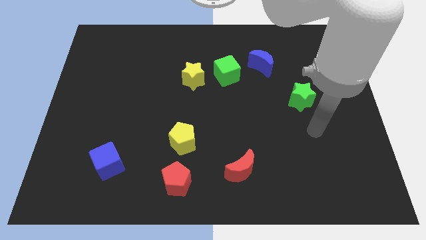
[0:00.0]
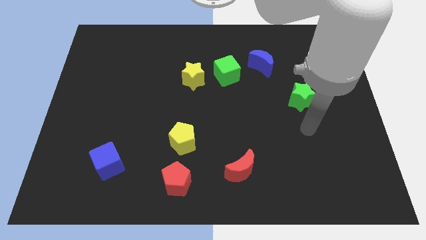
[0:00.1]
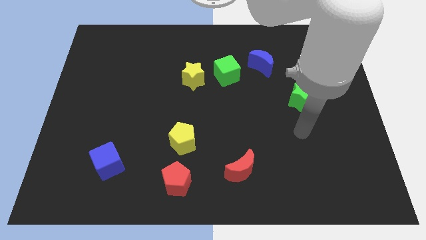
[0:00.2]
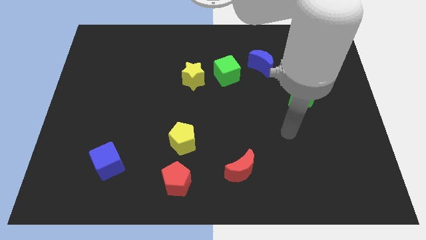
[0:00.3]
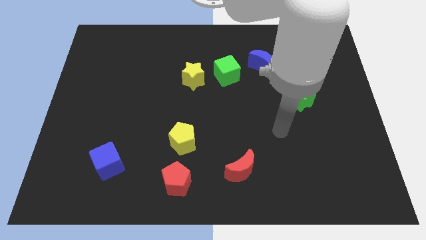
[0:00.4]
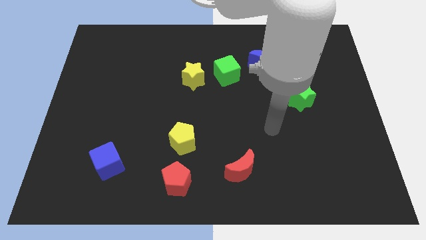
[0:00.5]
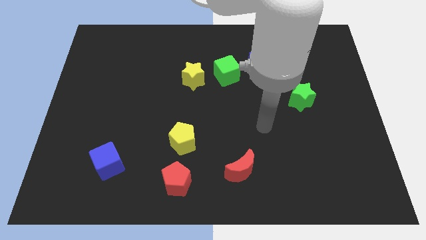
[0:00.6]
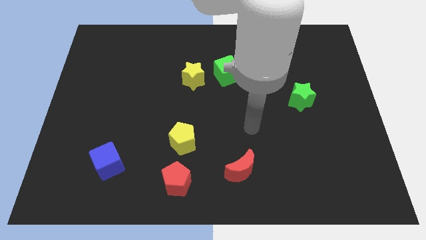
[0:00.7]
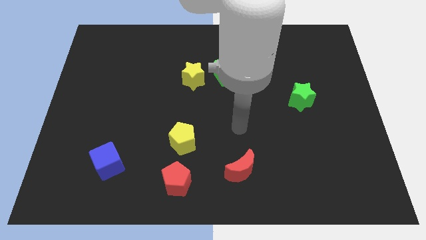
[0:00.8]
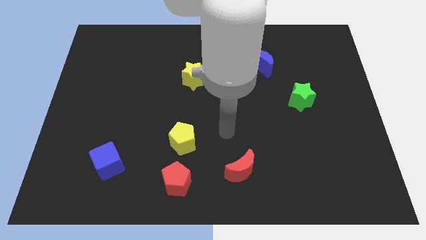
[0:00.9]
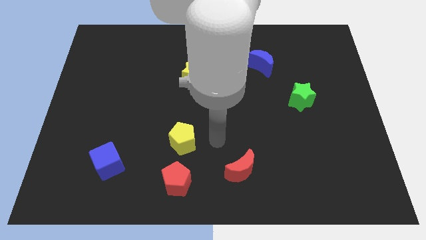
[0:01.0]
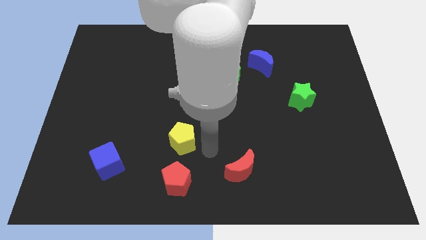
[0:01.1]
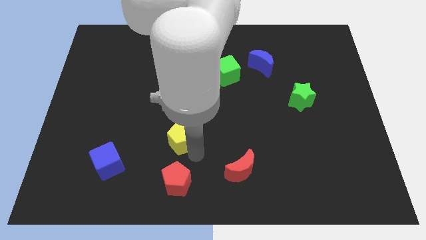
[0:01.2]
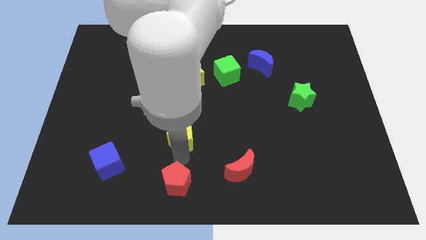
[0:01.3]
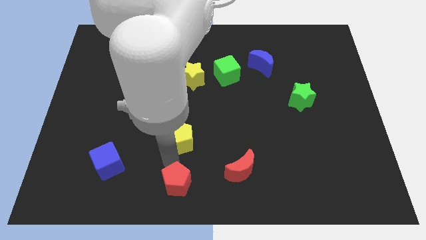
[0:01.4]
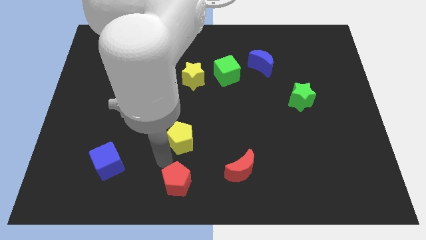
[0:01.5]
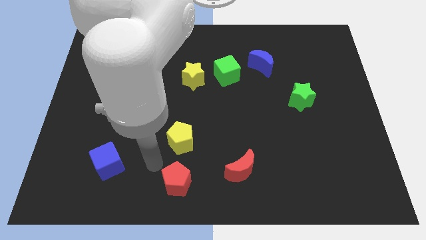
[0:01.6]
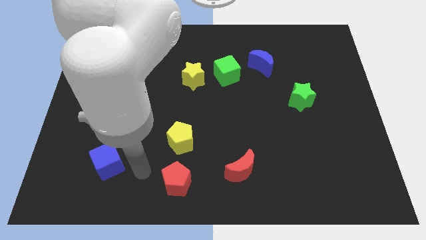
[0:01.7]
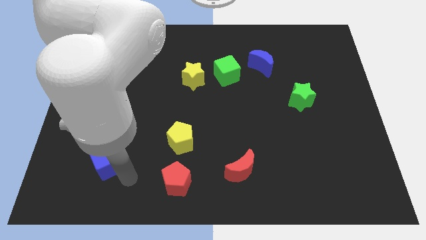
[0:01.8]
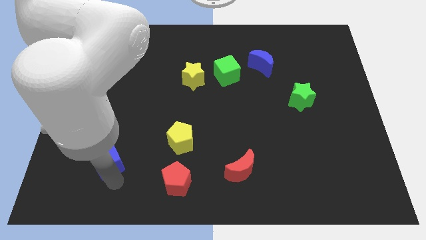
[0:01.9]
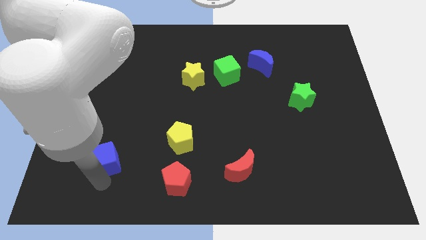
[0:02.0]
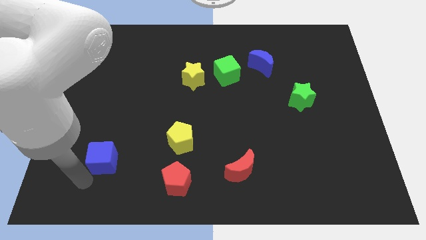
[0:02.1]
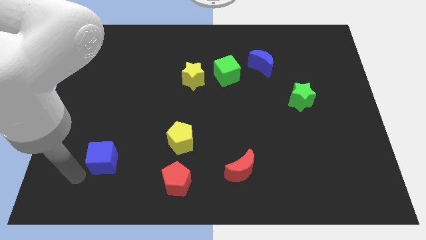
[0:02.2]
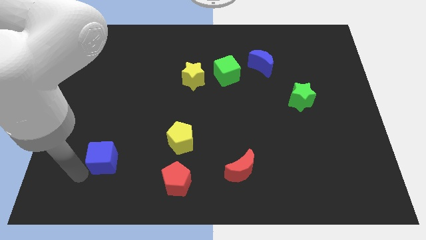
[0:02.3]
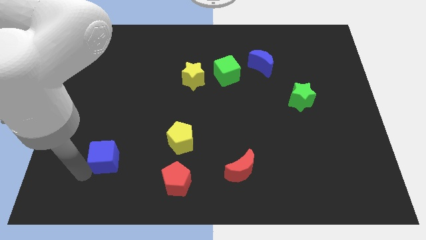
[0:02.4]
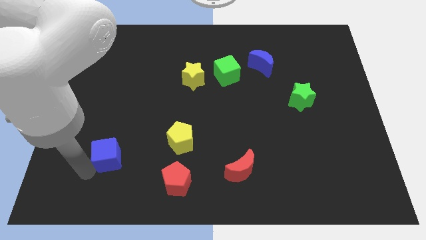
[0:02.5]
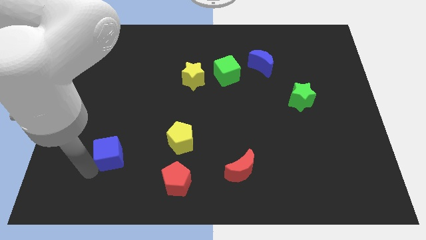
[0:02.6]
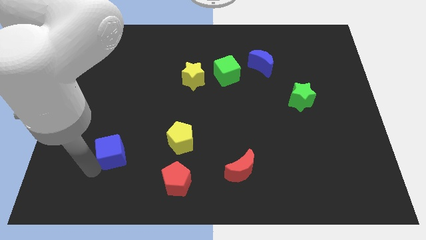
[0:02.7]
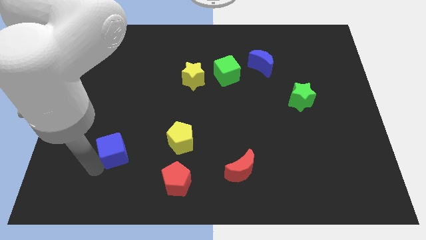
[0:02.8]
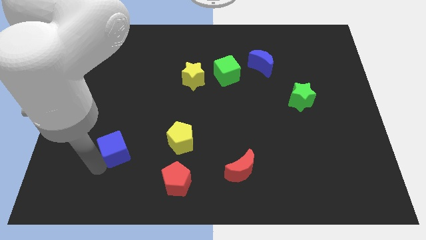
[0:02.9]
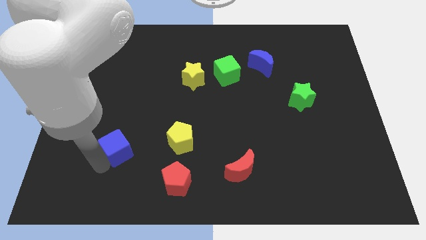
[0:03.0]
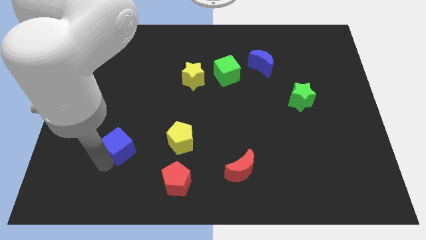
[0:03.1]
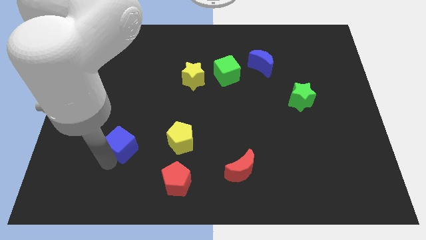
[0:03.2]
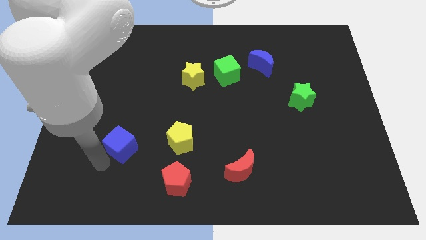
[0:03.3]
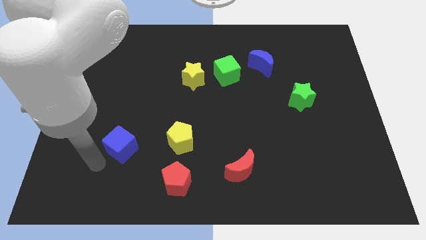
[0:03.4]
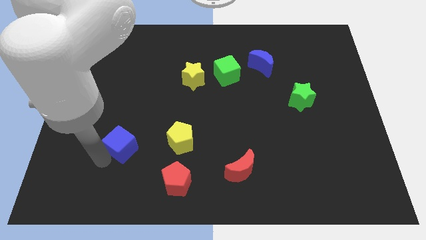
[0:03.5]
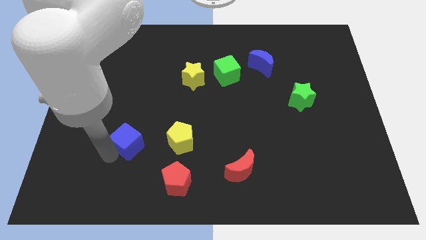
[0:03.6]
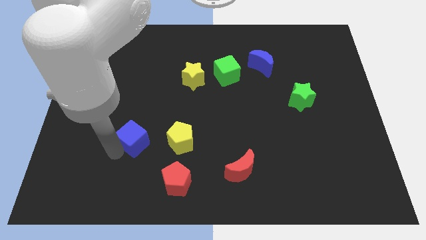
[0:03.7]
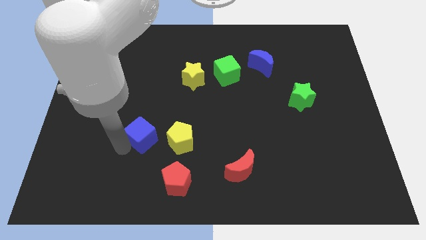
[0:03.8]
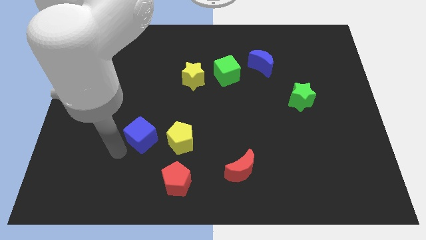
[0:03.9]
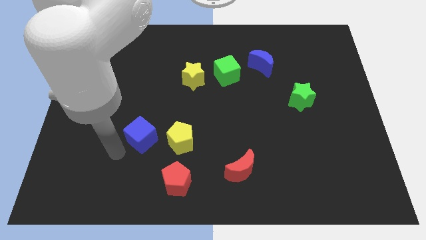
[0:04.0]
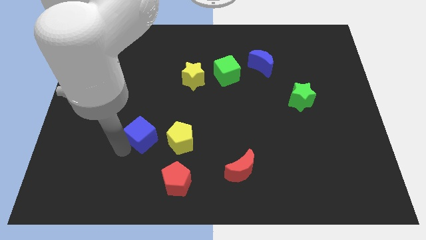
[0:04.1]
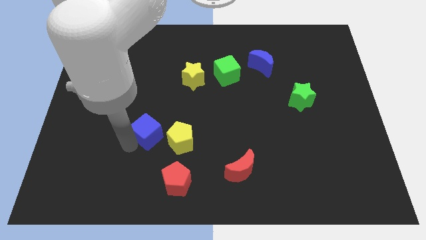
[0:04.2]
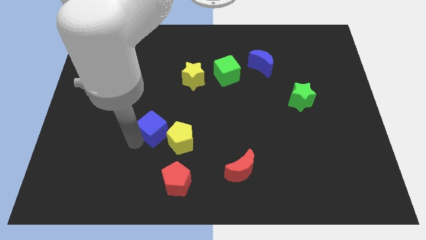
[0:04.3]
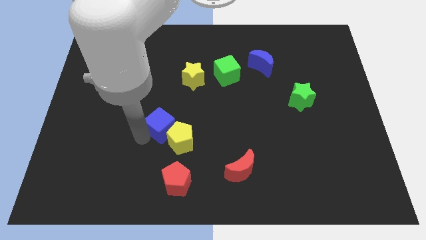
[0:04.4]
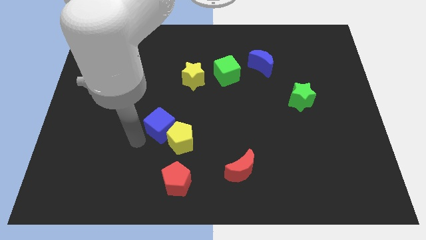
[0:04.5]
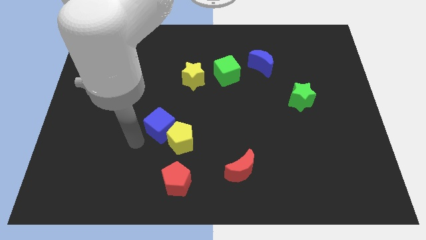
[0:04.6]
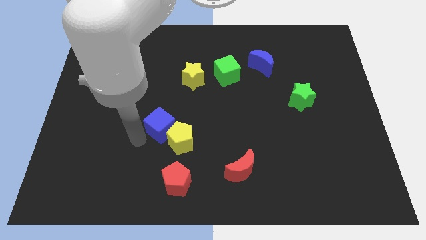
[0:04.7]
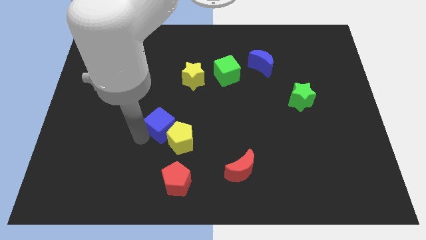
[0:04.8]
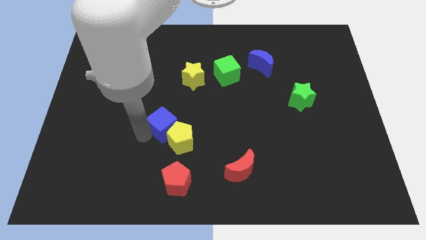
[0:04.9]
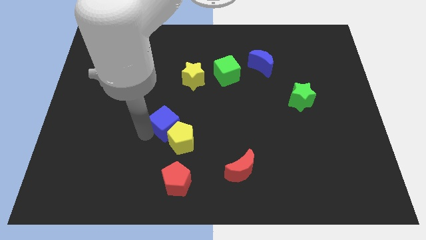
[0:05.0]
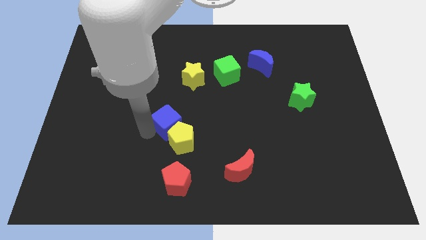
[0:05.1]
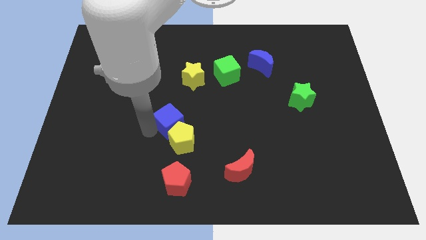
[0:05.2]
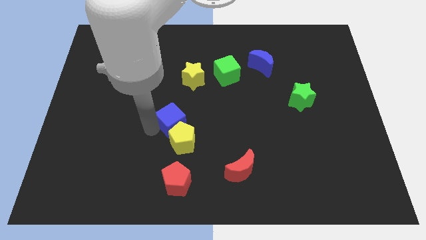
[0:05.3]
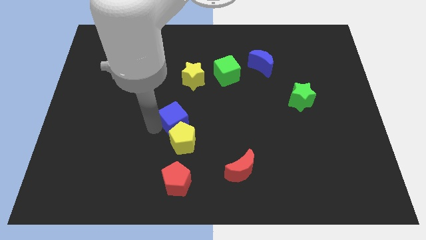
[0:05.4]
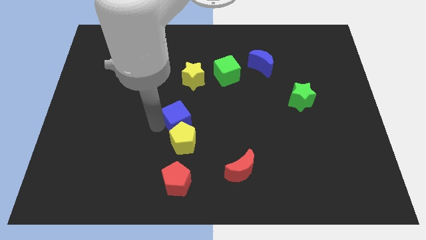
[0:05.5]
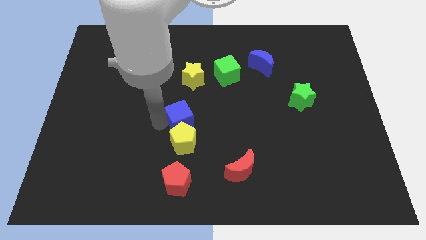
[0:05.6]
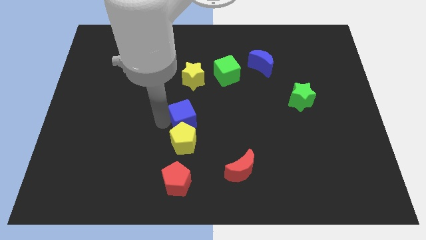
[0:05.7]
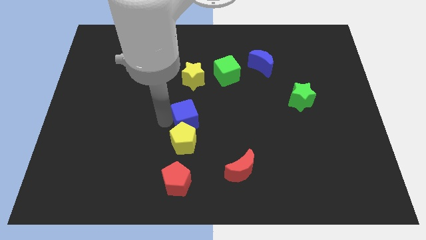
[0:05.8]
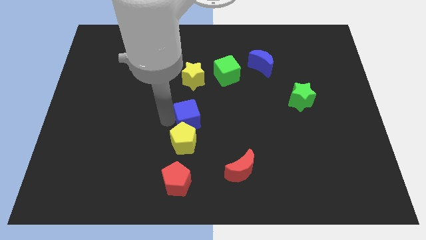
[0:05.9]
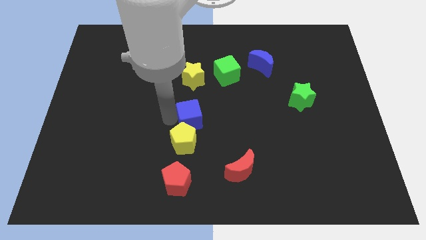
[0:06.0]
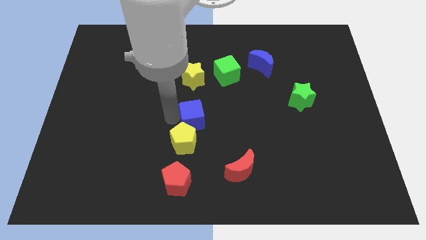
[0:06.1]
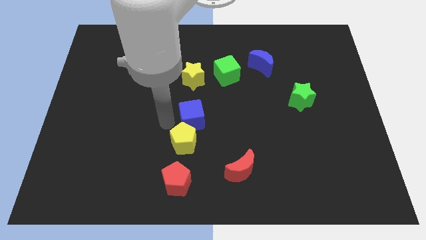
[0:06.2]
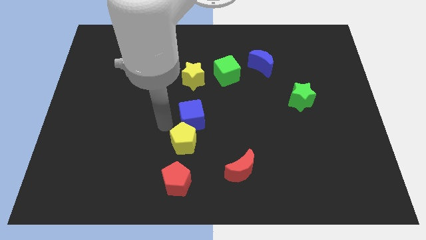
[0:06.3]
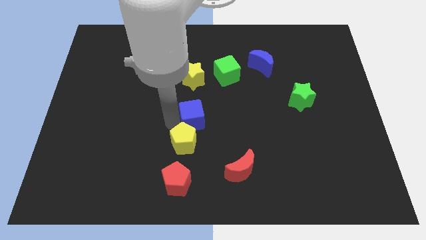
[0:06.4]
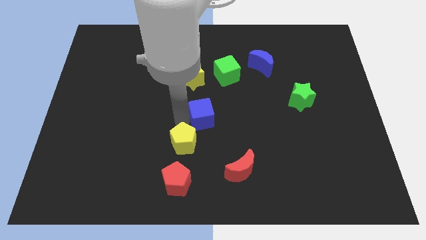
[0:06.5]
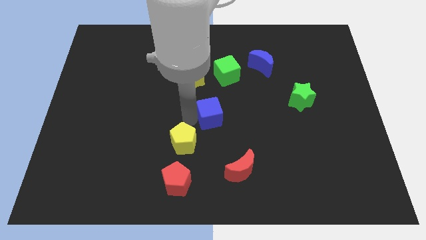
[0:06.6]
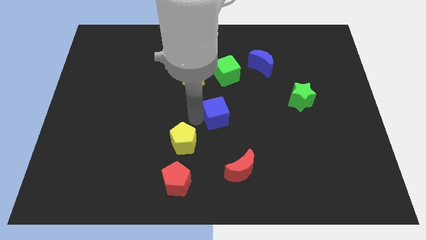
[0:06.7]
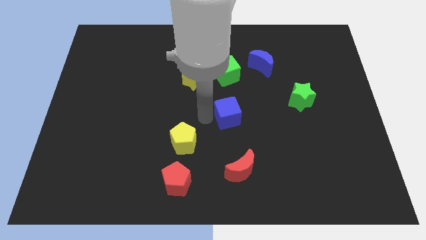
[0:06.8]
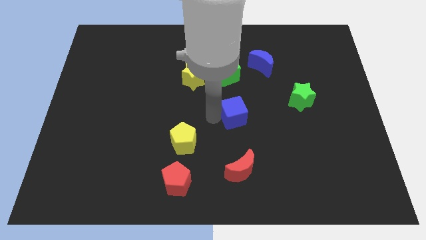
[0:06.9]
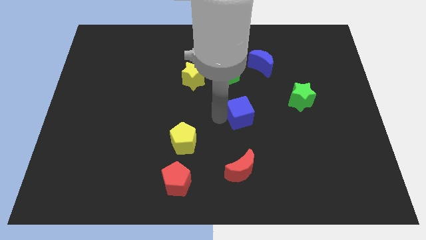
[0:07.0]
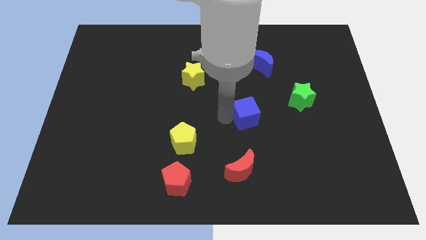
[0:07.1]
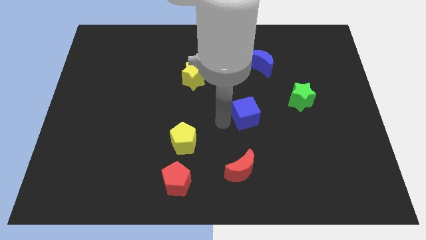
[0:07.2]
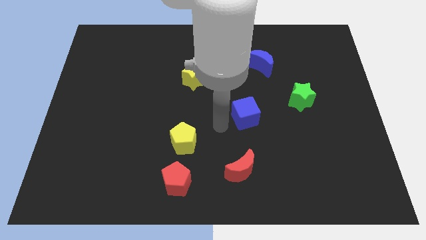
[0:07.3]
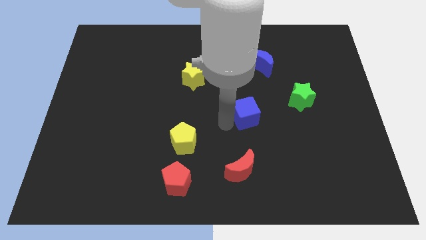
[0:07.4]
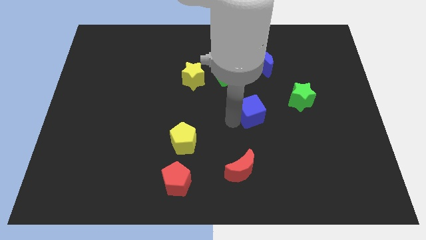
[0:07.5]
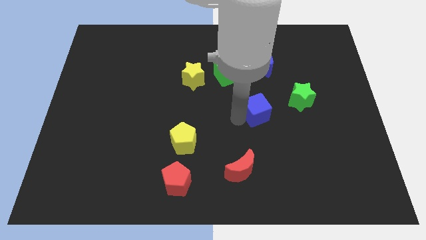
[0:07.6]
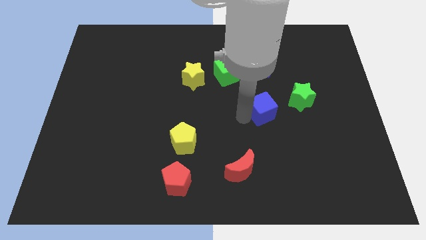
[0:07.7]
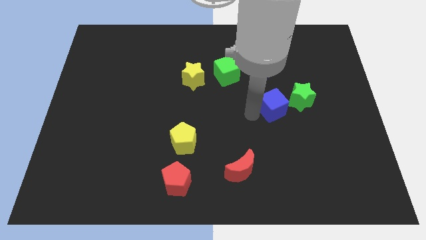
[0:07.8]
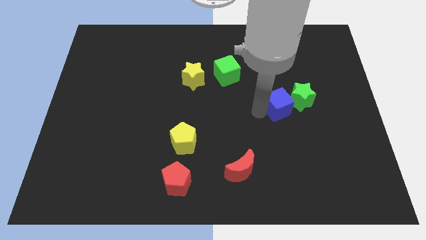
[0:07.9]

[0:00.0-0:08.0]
move the blue cube close to the green star

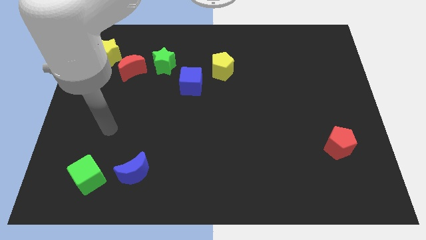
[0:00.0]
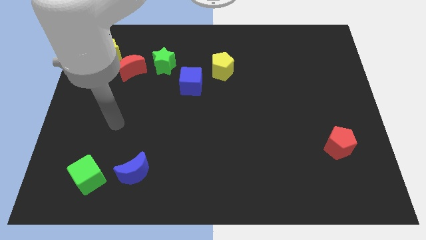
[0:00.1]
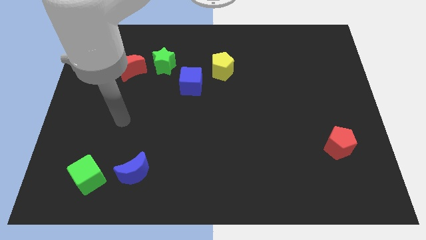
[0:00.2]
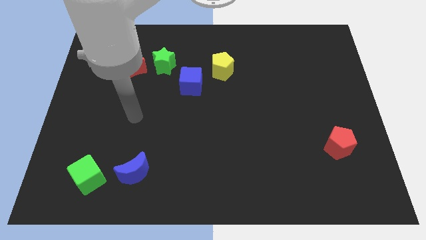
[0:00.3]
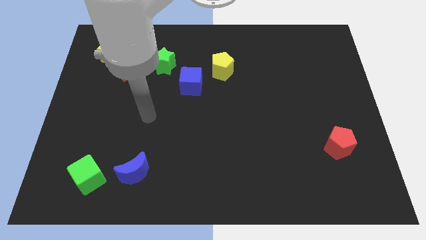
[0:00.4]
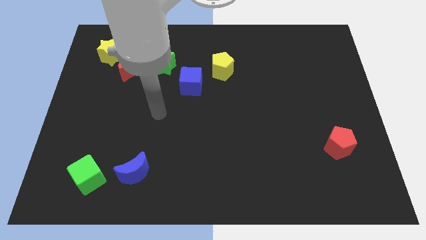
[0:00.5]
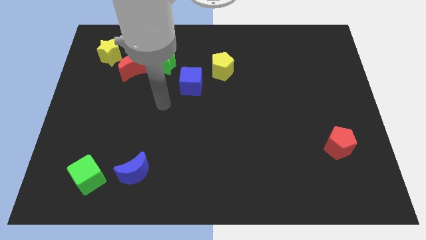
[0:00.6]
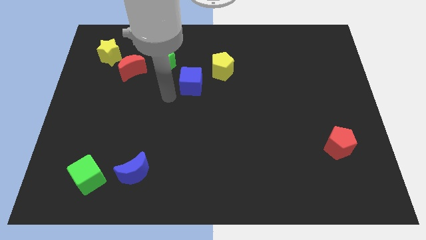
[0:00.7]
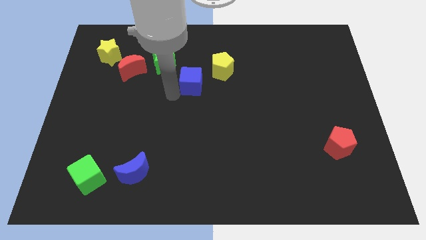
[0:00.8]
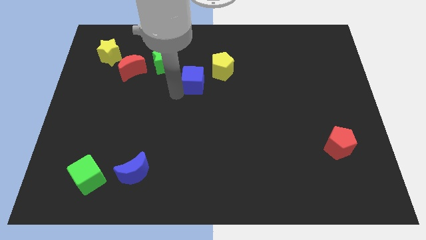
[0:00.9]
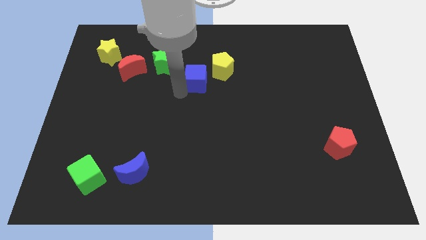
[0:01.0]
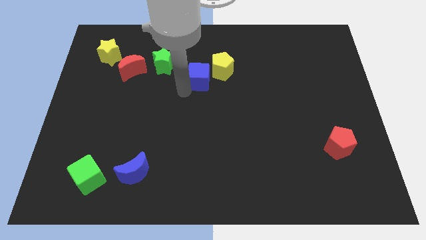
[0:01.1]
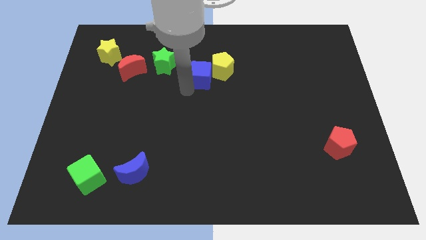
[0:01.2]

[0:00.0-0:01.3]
put the blue cube next to the yellow pentagon
